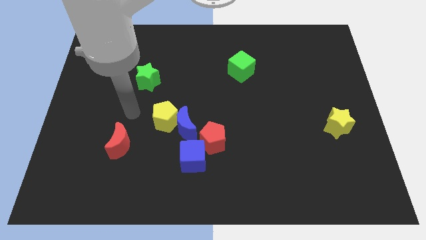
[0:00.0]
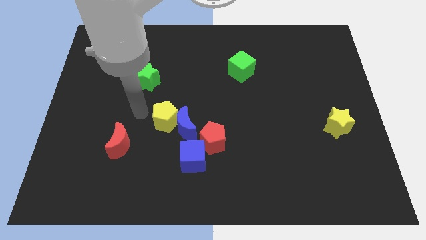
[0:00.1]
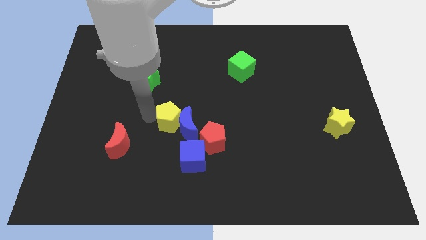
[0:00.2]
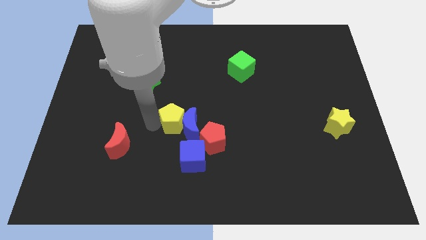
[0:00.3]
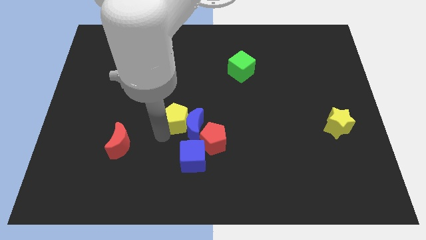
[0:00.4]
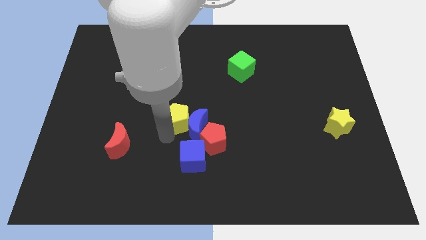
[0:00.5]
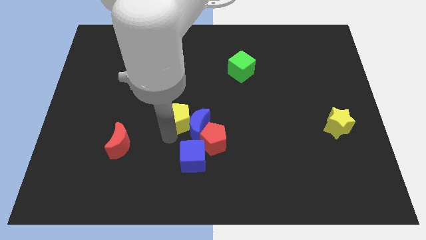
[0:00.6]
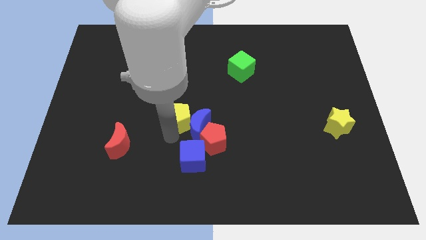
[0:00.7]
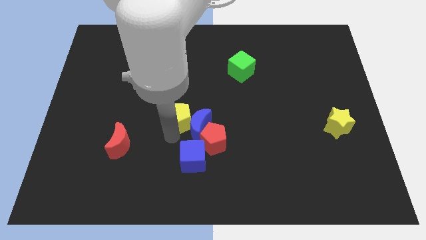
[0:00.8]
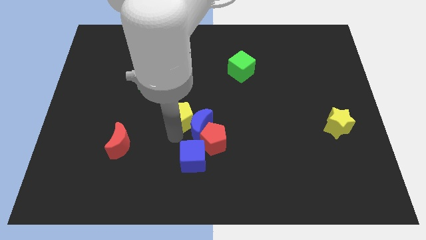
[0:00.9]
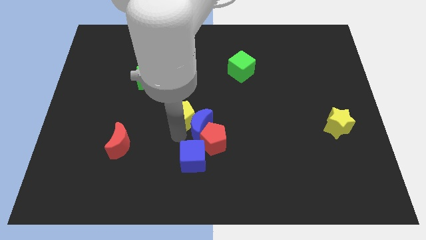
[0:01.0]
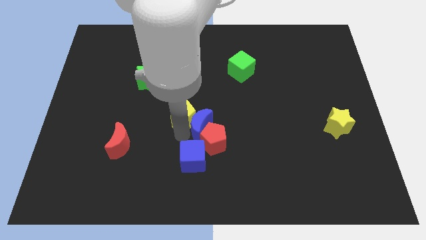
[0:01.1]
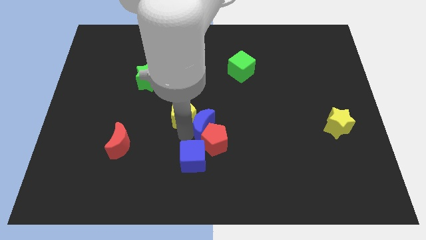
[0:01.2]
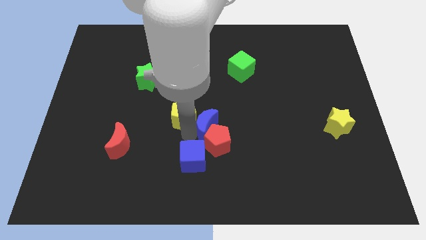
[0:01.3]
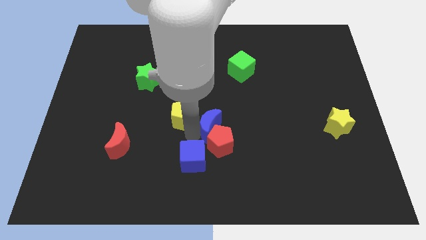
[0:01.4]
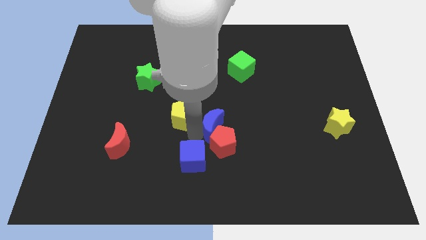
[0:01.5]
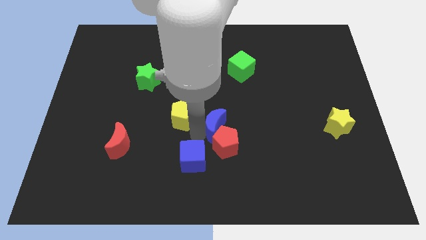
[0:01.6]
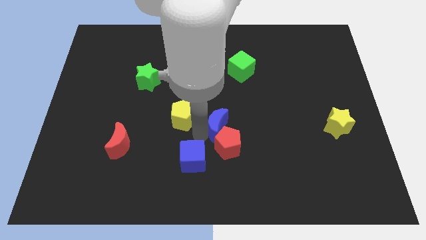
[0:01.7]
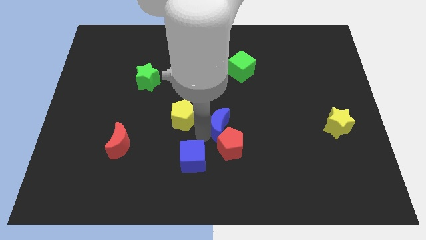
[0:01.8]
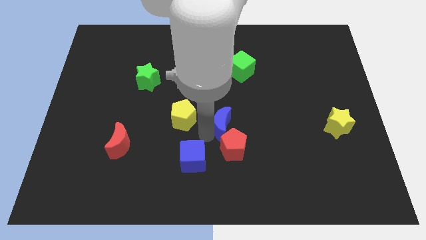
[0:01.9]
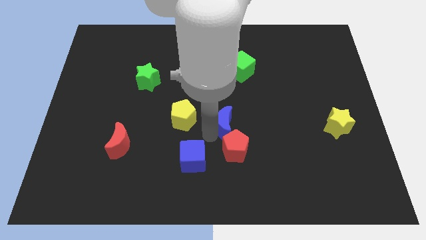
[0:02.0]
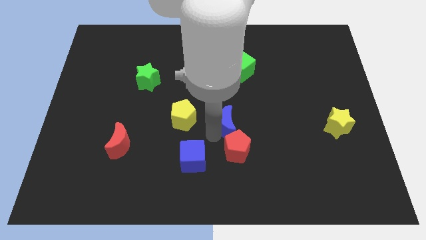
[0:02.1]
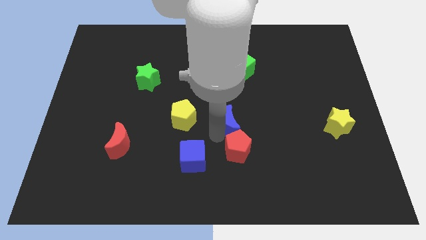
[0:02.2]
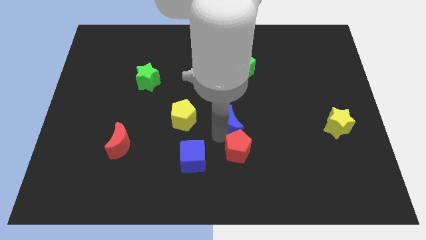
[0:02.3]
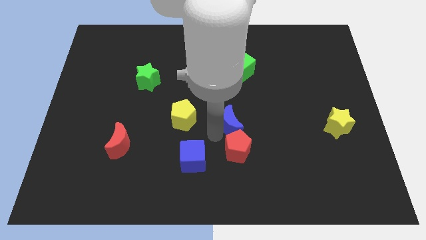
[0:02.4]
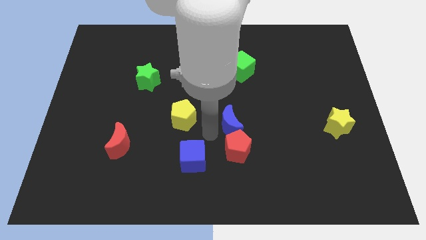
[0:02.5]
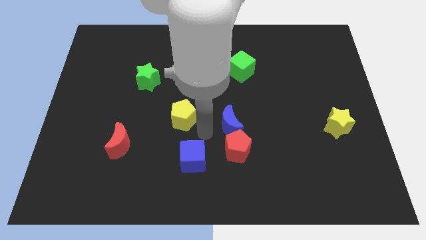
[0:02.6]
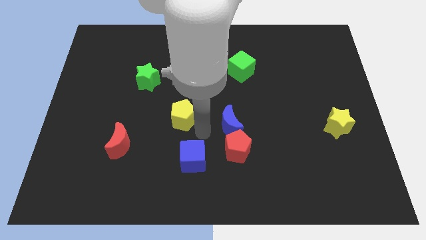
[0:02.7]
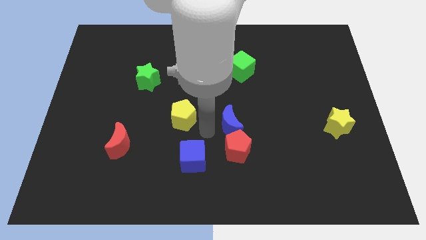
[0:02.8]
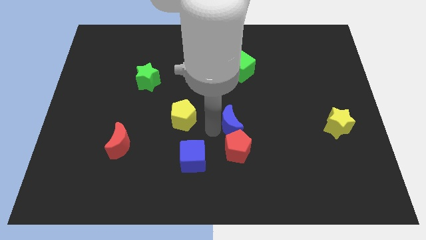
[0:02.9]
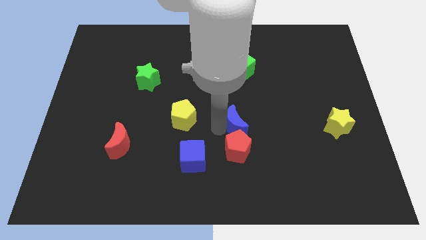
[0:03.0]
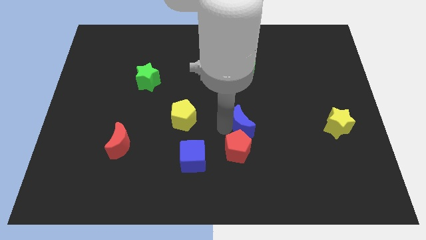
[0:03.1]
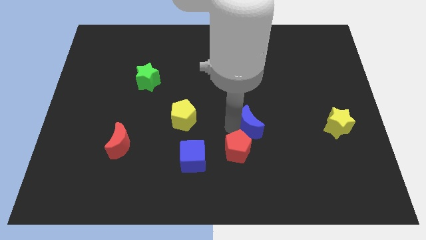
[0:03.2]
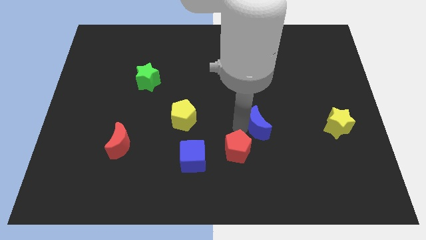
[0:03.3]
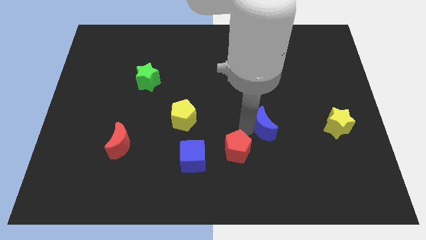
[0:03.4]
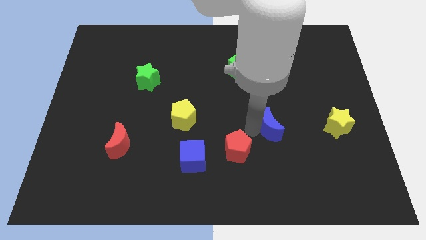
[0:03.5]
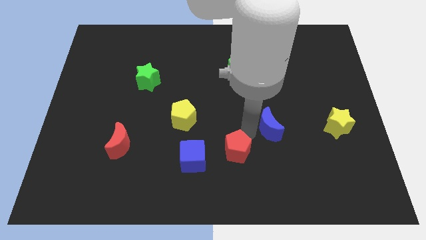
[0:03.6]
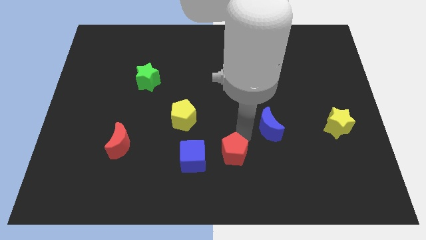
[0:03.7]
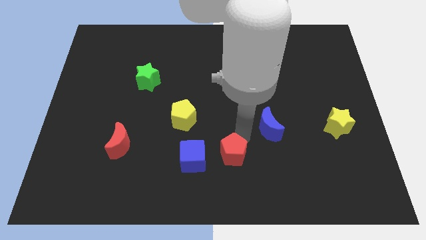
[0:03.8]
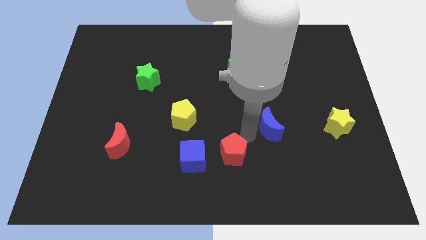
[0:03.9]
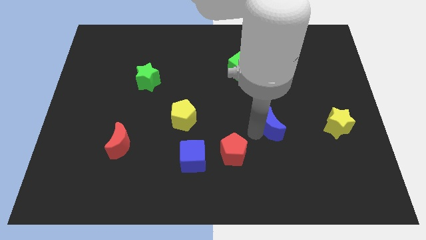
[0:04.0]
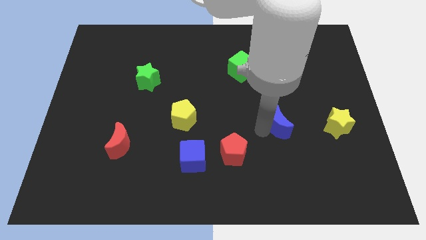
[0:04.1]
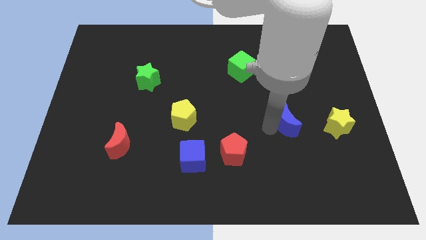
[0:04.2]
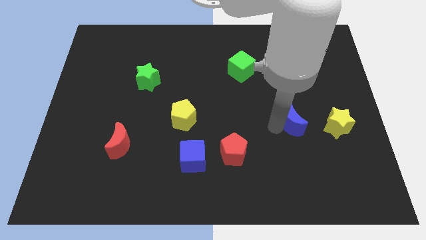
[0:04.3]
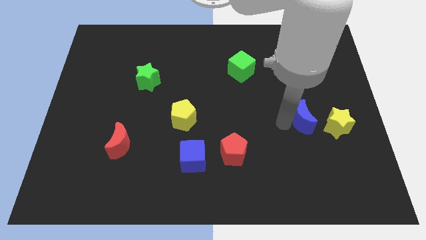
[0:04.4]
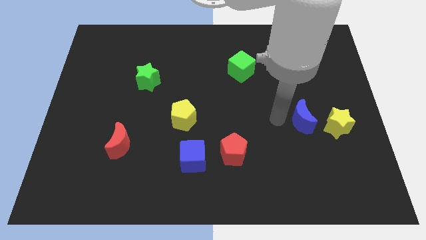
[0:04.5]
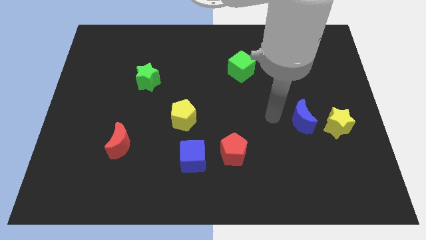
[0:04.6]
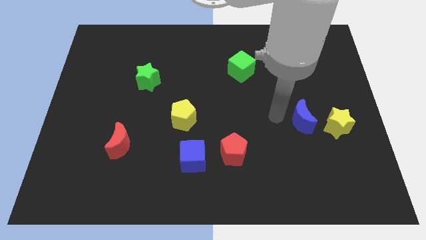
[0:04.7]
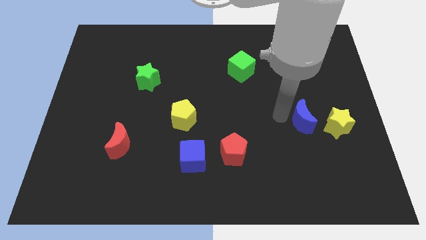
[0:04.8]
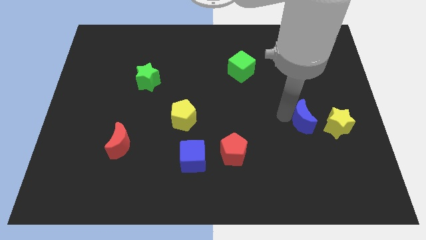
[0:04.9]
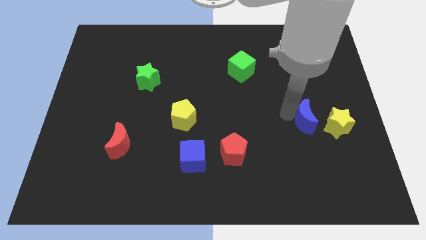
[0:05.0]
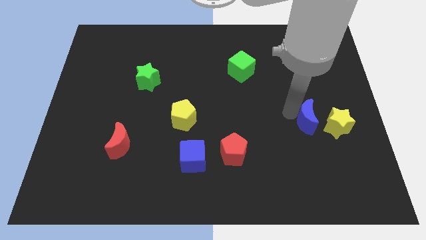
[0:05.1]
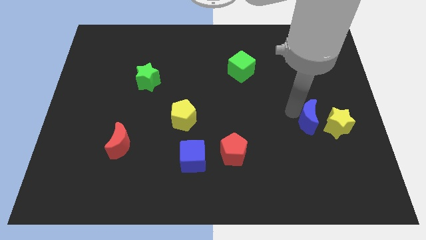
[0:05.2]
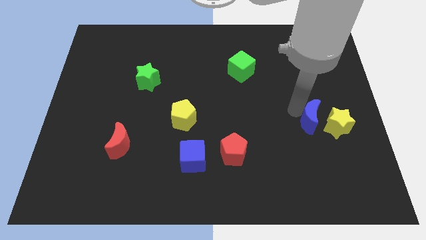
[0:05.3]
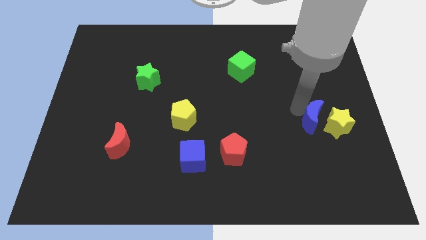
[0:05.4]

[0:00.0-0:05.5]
push the blue moon next to the yellow star
